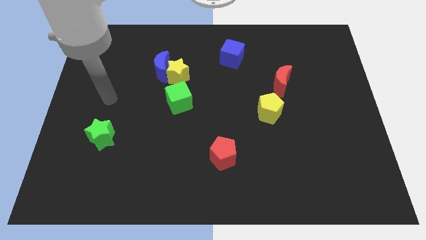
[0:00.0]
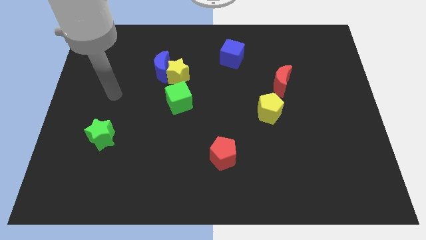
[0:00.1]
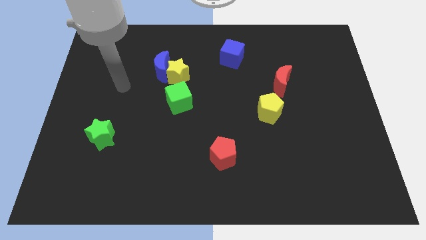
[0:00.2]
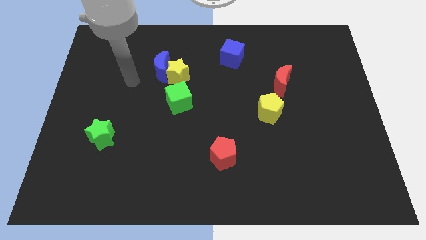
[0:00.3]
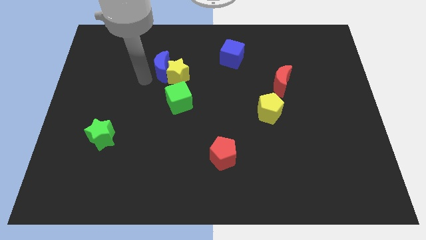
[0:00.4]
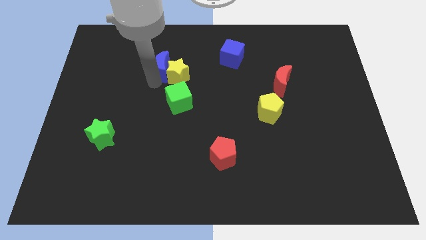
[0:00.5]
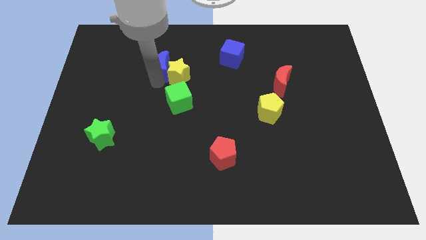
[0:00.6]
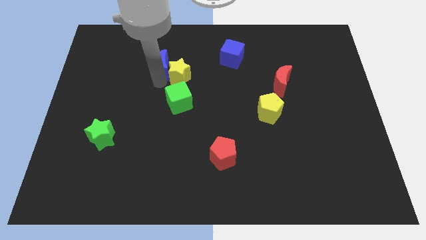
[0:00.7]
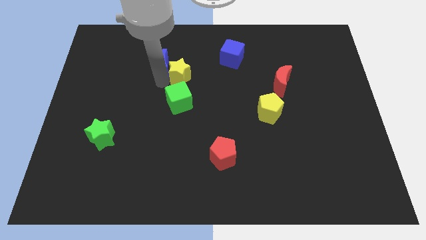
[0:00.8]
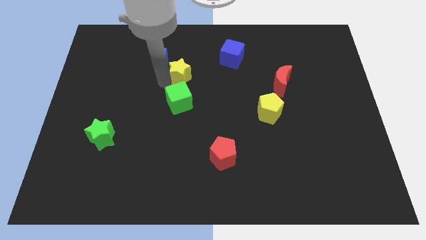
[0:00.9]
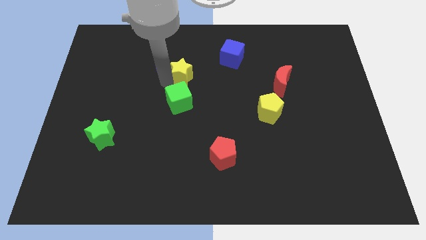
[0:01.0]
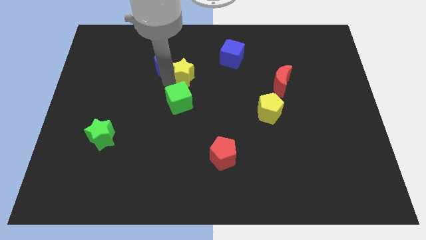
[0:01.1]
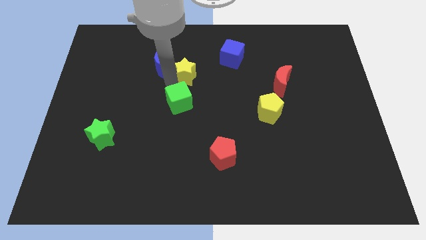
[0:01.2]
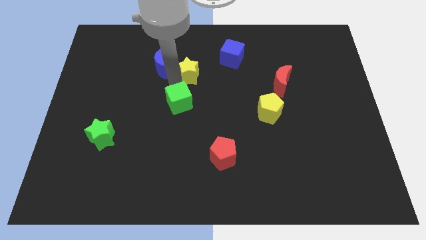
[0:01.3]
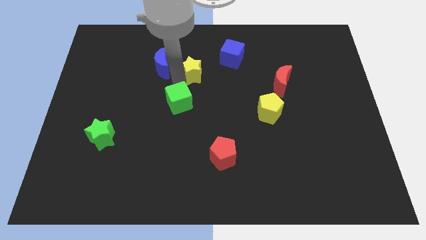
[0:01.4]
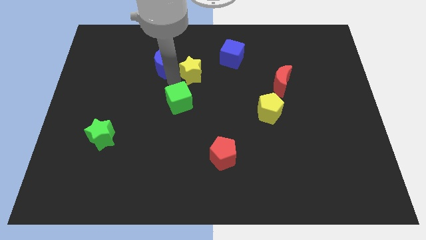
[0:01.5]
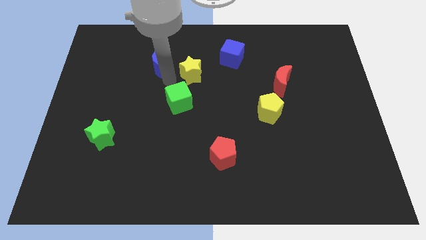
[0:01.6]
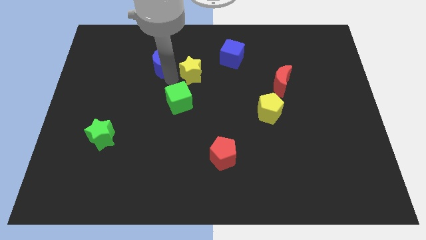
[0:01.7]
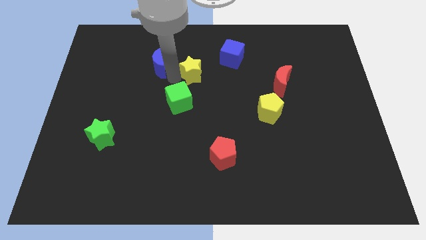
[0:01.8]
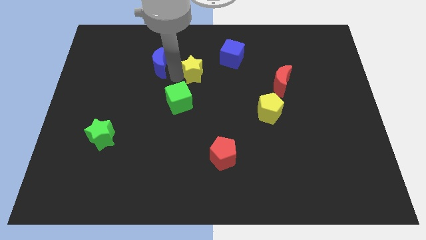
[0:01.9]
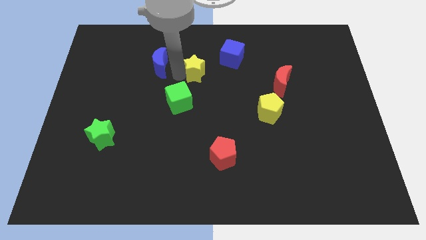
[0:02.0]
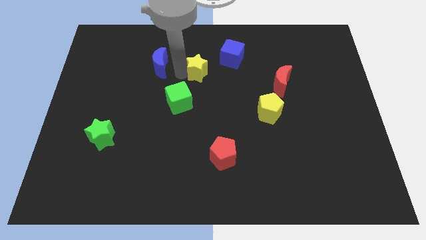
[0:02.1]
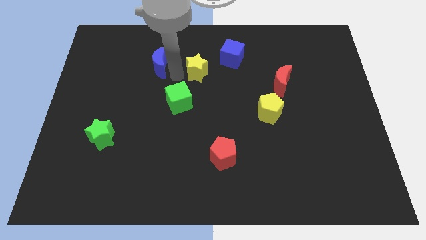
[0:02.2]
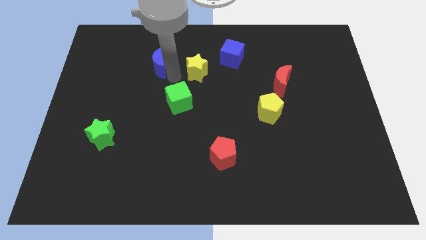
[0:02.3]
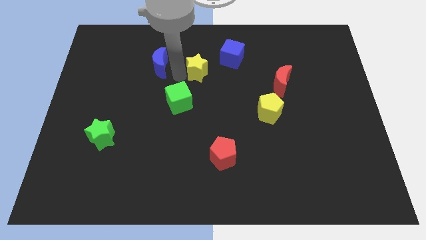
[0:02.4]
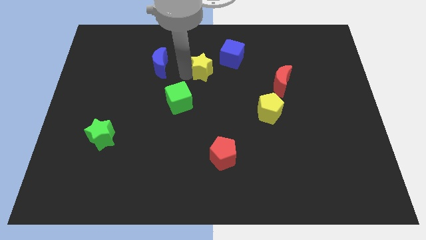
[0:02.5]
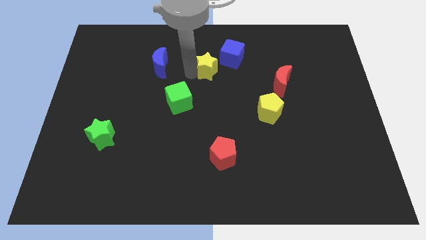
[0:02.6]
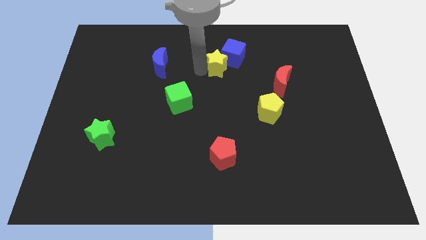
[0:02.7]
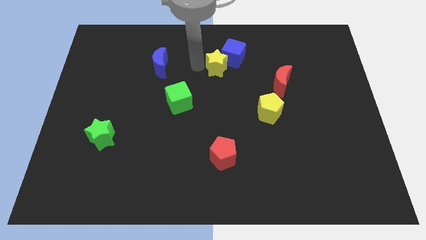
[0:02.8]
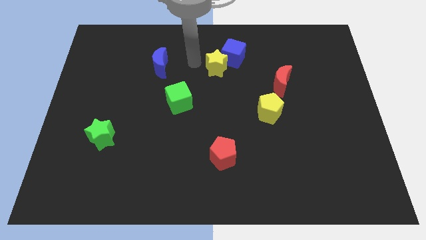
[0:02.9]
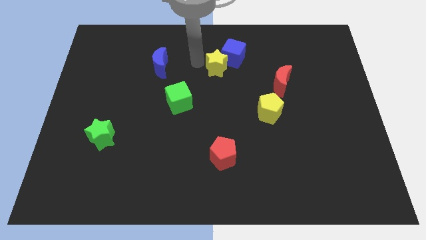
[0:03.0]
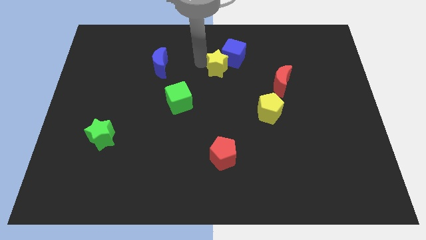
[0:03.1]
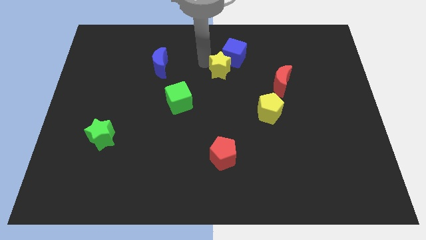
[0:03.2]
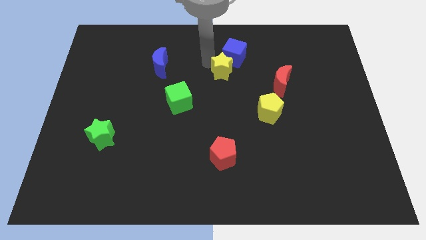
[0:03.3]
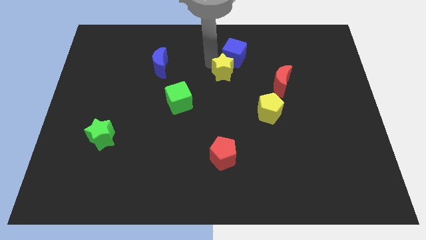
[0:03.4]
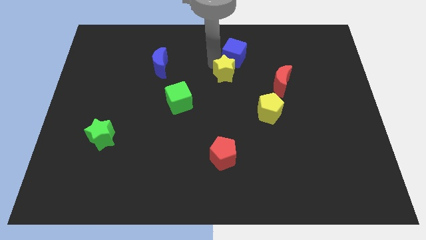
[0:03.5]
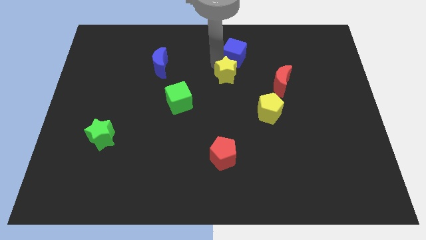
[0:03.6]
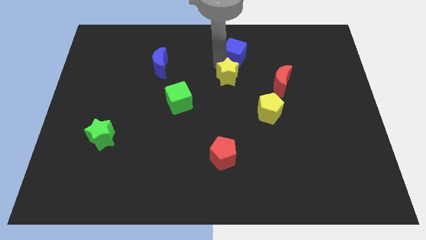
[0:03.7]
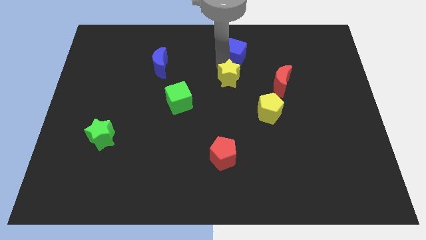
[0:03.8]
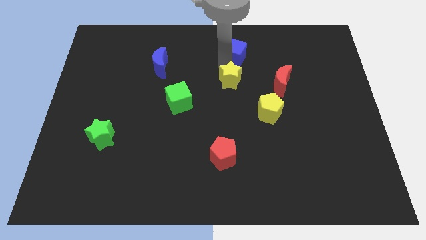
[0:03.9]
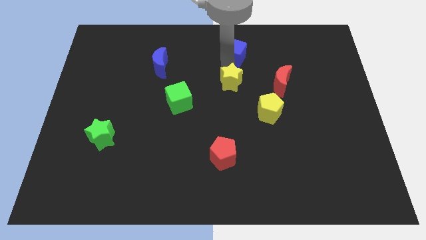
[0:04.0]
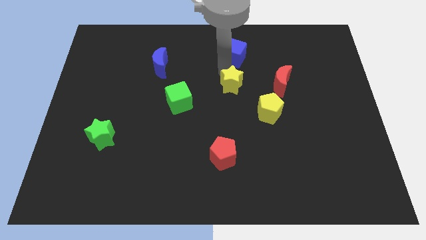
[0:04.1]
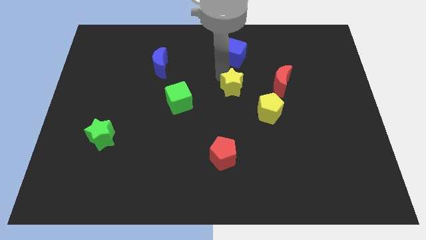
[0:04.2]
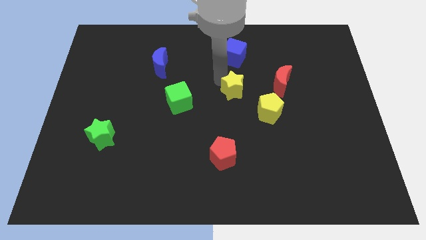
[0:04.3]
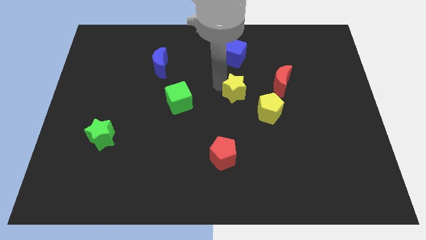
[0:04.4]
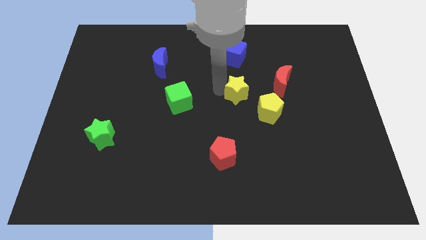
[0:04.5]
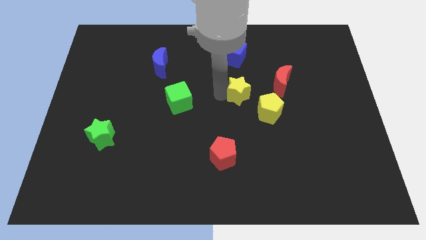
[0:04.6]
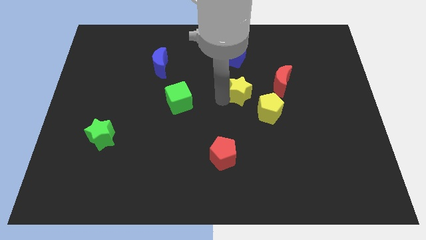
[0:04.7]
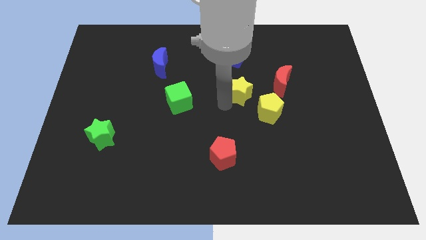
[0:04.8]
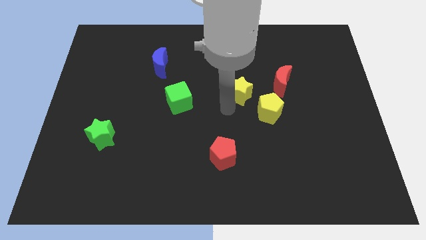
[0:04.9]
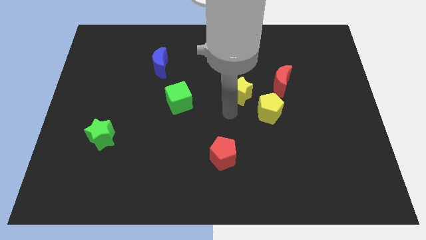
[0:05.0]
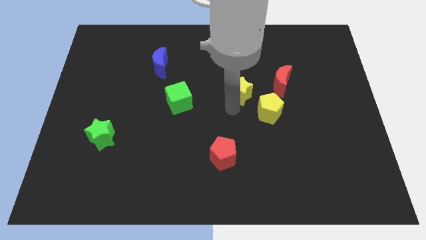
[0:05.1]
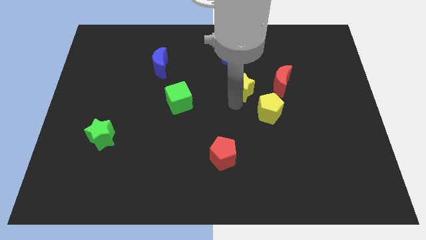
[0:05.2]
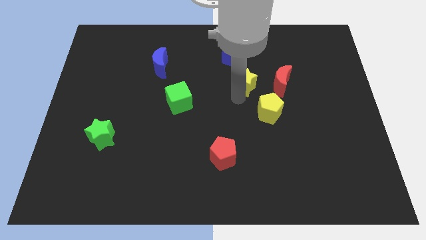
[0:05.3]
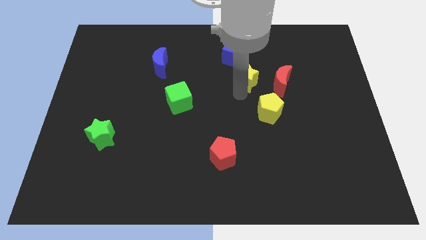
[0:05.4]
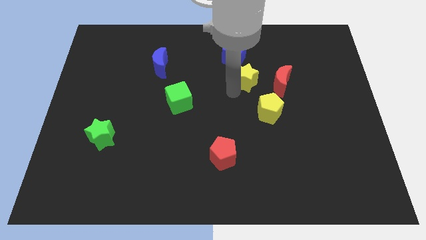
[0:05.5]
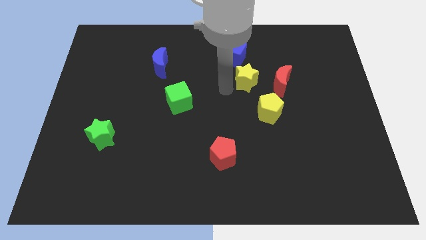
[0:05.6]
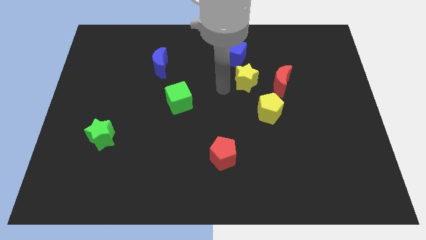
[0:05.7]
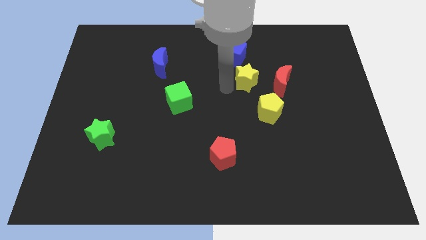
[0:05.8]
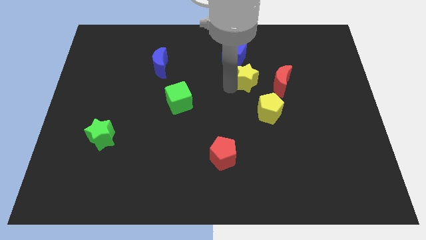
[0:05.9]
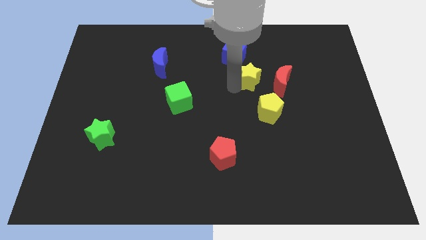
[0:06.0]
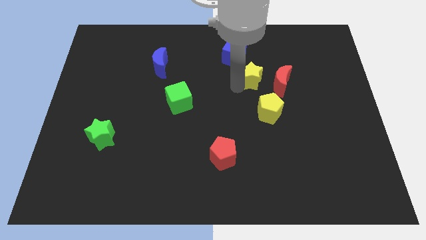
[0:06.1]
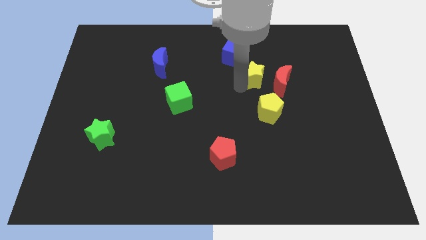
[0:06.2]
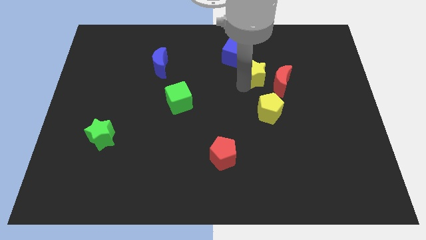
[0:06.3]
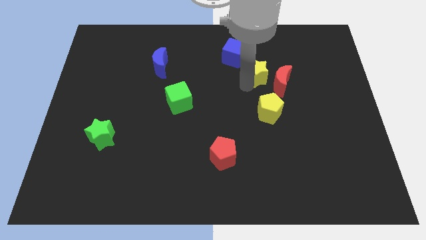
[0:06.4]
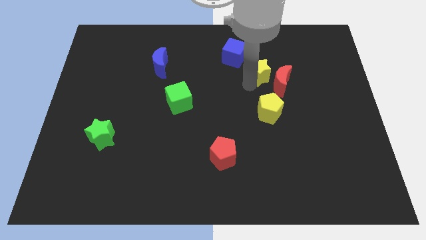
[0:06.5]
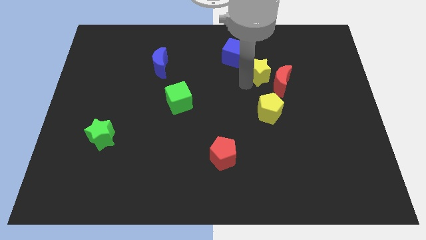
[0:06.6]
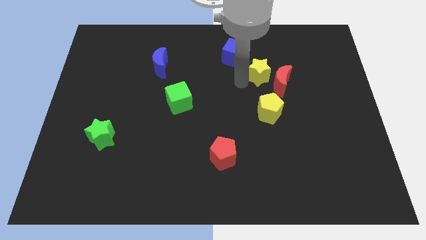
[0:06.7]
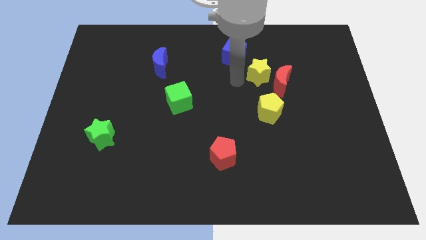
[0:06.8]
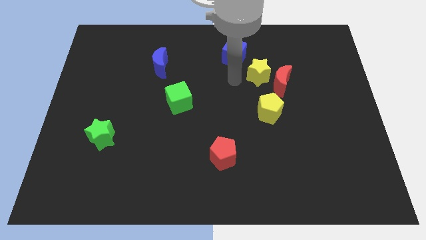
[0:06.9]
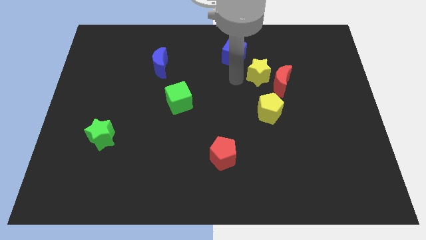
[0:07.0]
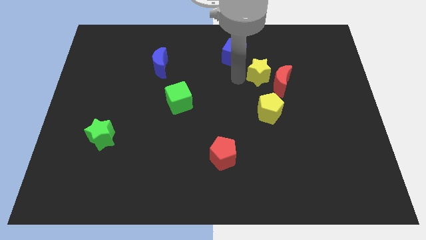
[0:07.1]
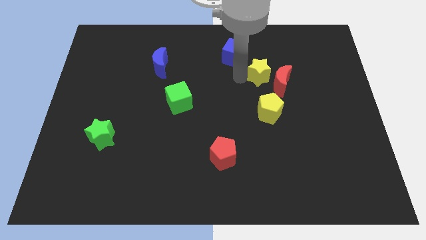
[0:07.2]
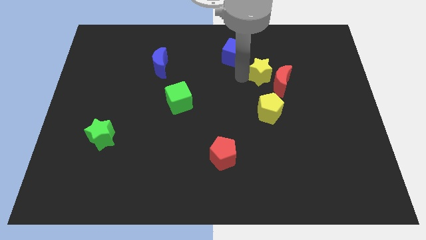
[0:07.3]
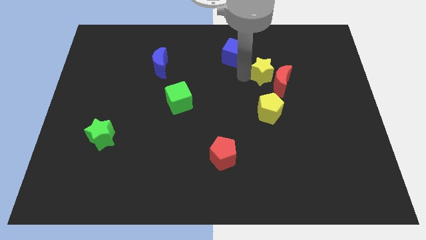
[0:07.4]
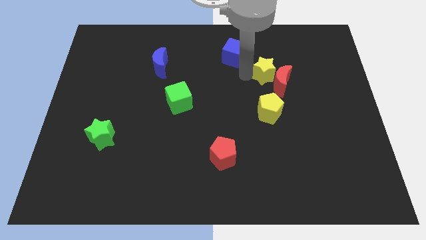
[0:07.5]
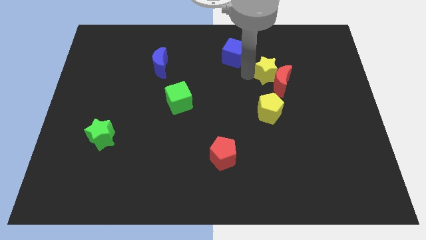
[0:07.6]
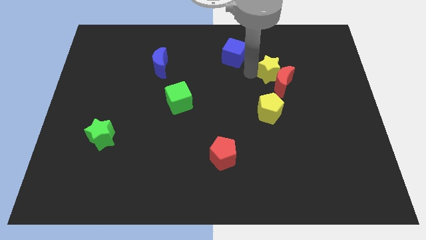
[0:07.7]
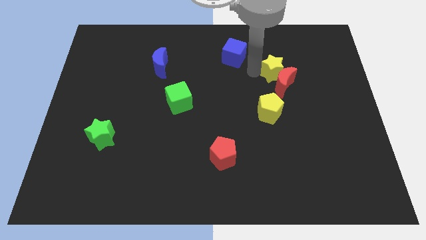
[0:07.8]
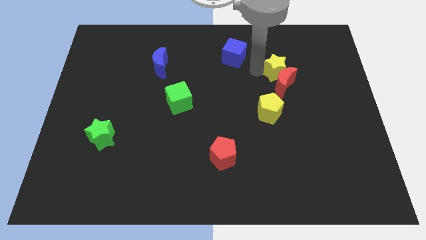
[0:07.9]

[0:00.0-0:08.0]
push the yellow star diagonally up and to the right of the red moon
